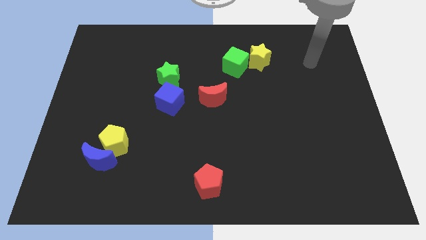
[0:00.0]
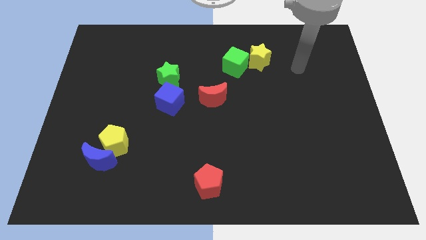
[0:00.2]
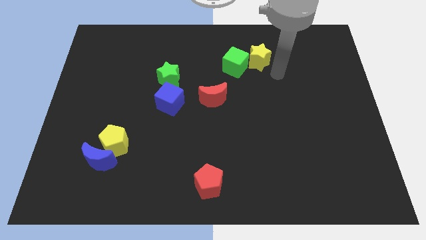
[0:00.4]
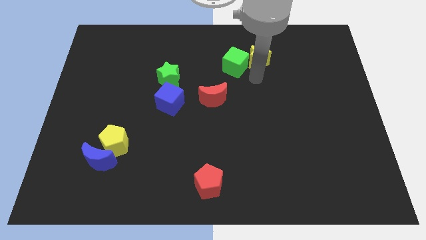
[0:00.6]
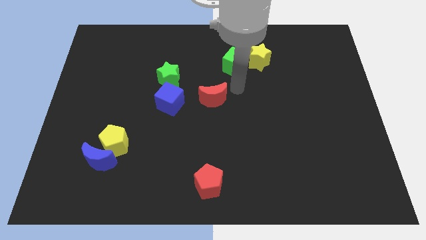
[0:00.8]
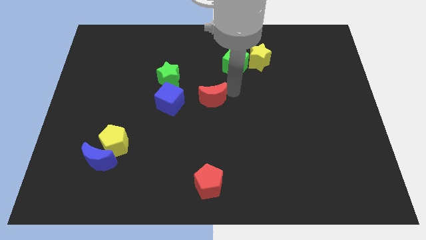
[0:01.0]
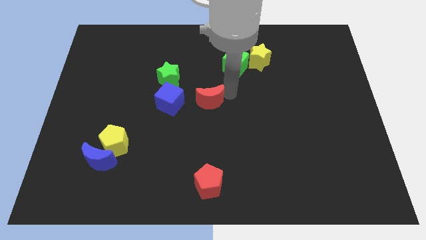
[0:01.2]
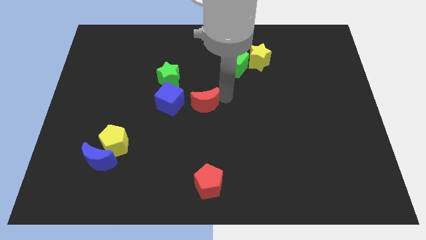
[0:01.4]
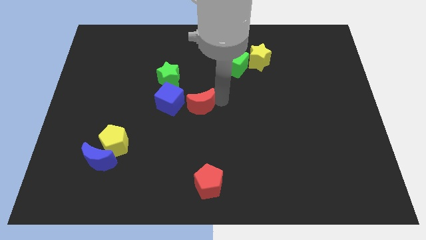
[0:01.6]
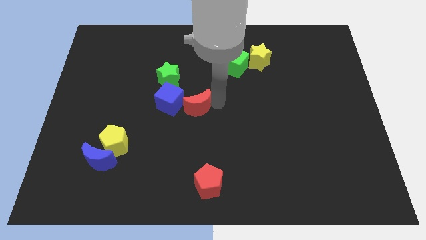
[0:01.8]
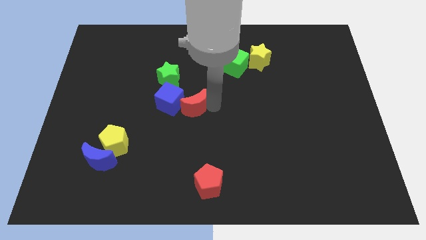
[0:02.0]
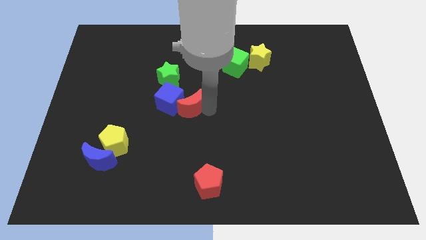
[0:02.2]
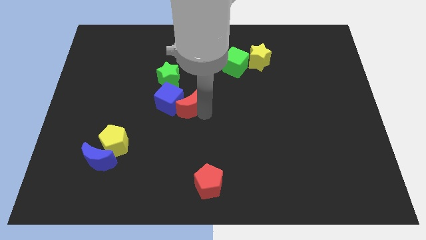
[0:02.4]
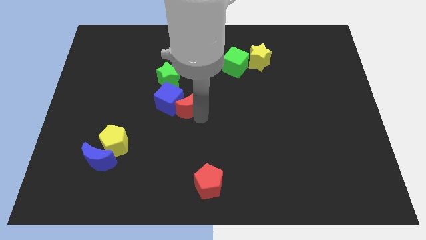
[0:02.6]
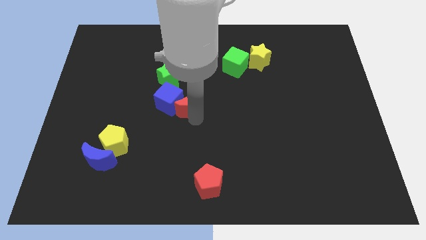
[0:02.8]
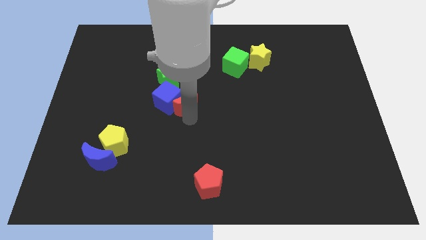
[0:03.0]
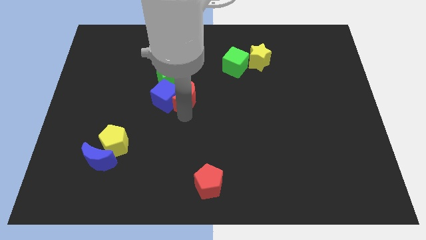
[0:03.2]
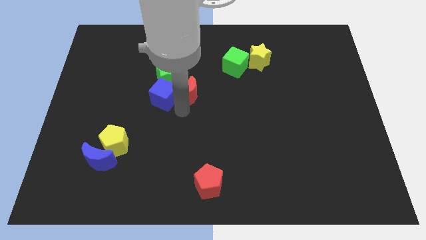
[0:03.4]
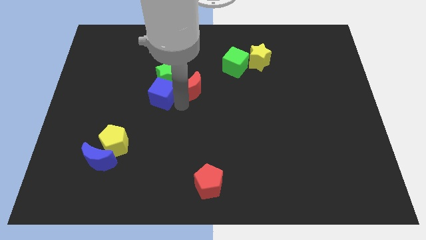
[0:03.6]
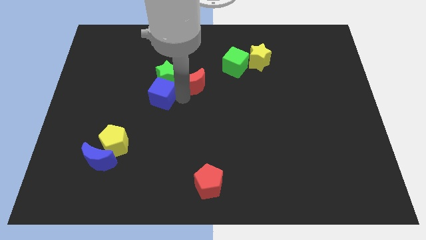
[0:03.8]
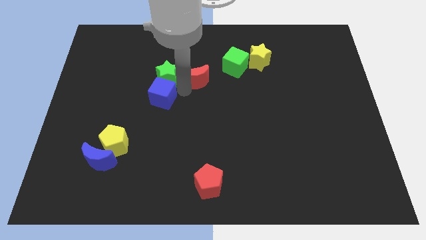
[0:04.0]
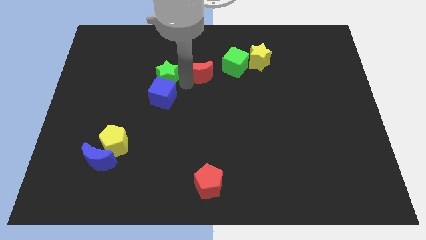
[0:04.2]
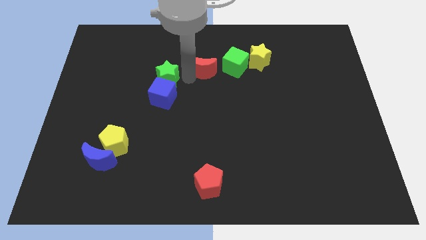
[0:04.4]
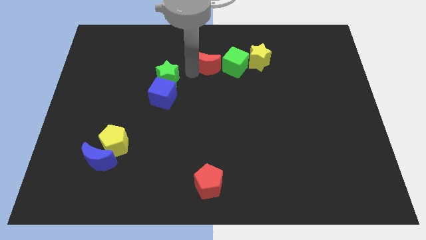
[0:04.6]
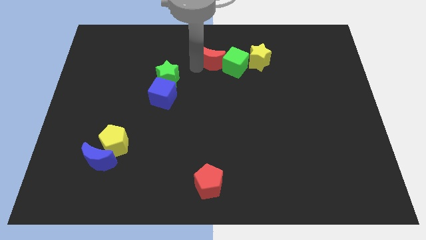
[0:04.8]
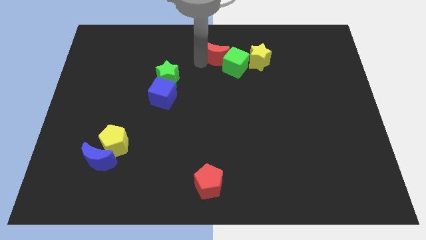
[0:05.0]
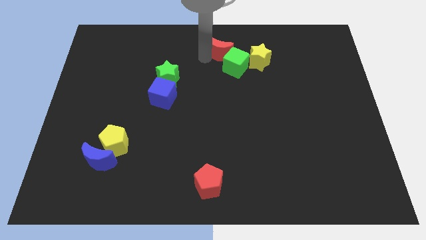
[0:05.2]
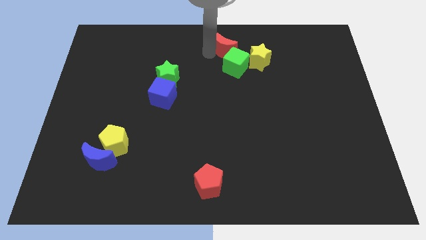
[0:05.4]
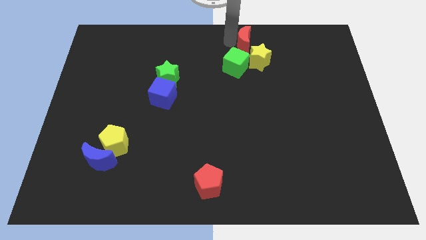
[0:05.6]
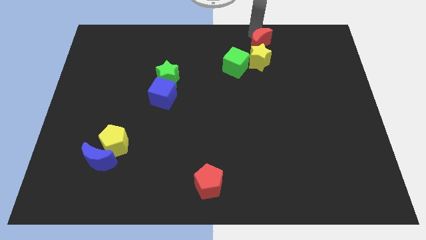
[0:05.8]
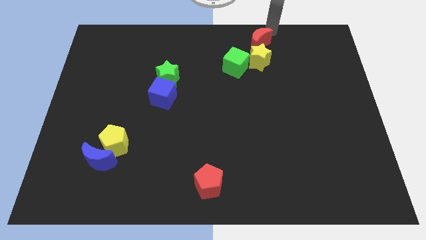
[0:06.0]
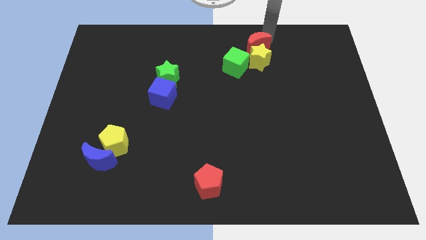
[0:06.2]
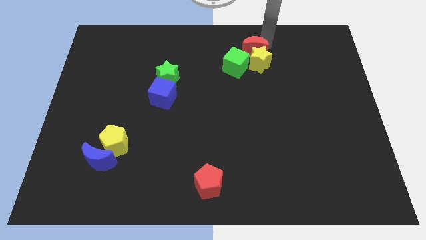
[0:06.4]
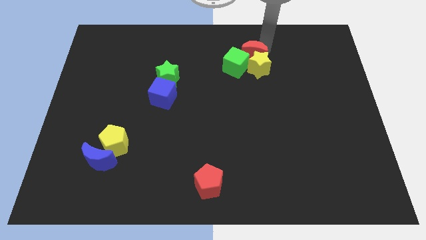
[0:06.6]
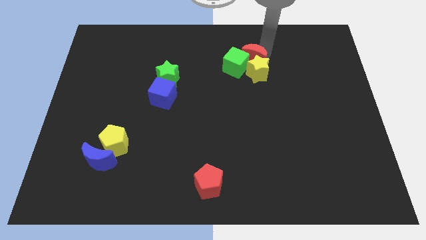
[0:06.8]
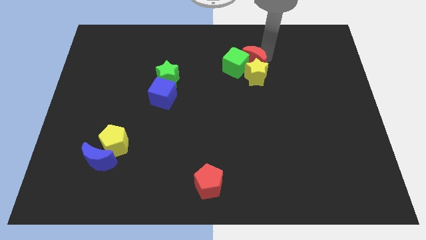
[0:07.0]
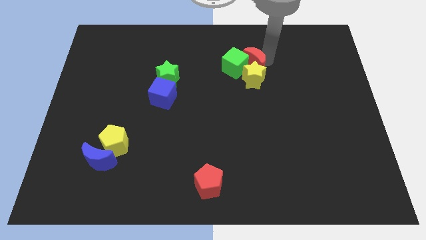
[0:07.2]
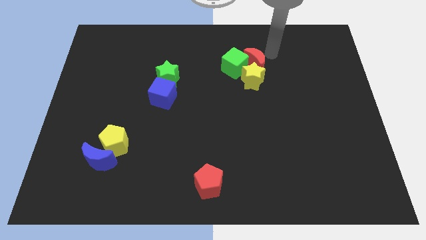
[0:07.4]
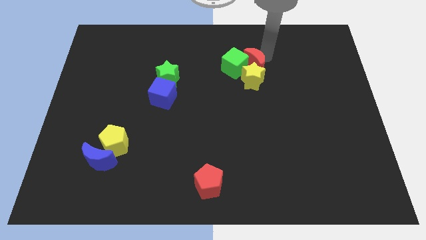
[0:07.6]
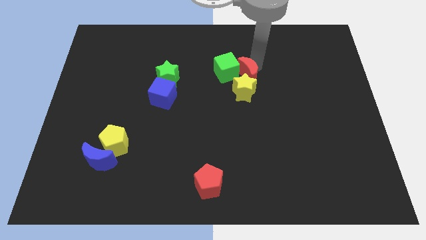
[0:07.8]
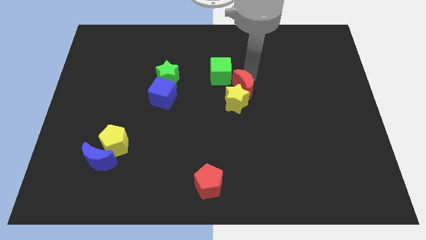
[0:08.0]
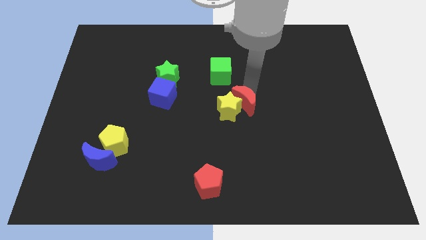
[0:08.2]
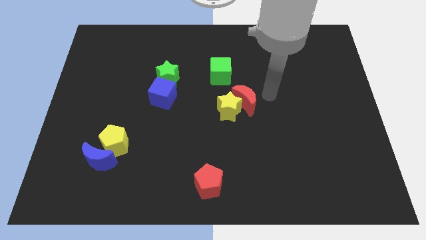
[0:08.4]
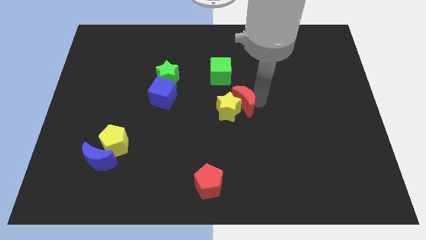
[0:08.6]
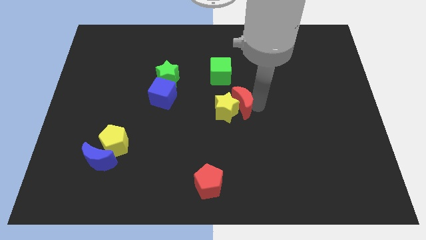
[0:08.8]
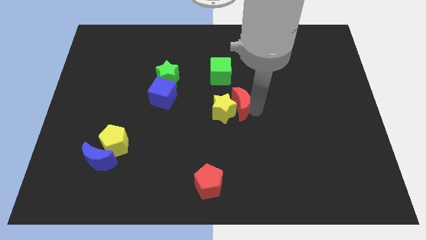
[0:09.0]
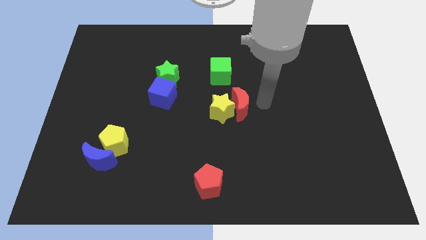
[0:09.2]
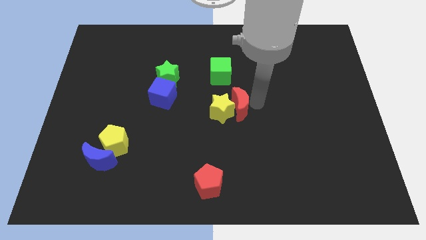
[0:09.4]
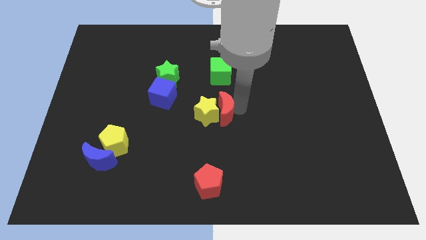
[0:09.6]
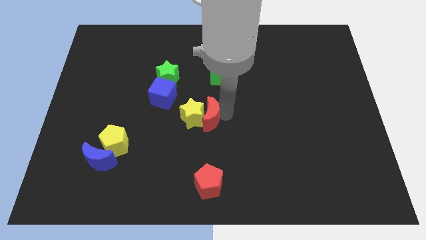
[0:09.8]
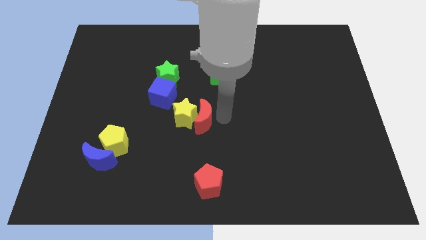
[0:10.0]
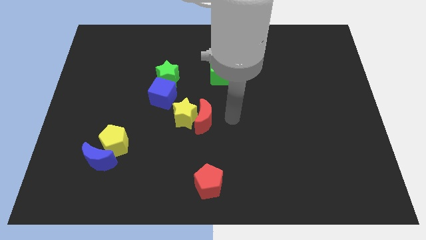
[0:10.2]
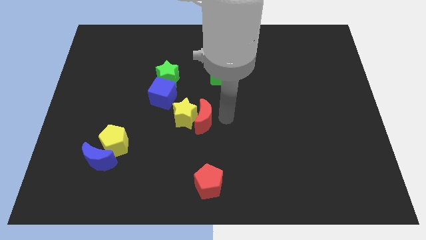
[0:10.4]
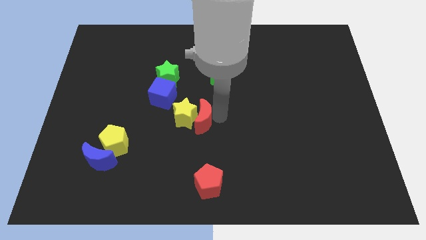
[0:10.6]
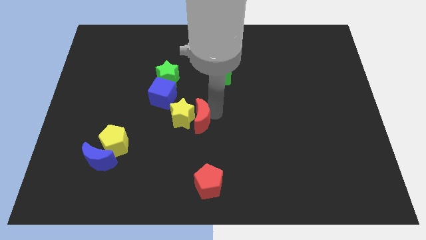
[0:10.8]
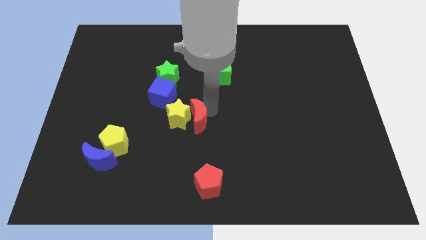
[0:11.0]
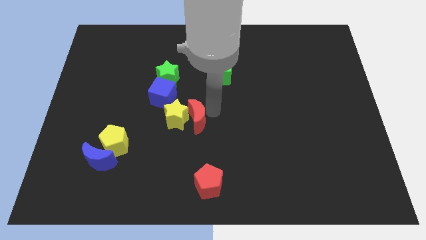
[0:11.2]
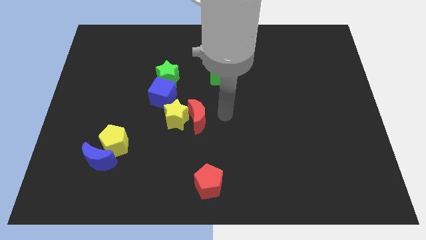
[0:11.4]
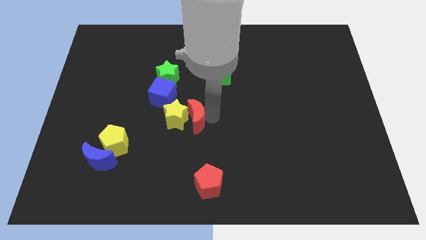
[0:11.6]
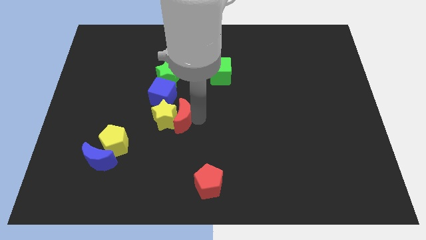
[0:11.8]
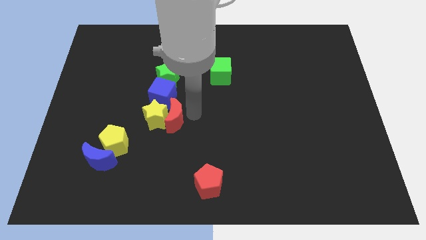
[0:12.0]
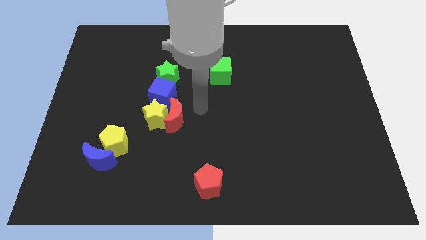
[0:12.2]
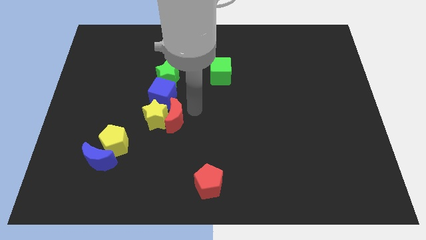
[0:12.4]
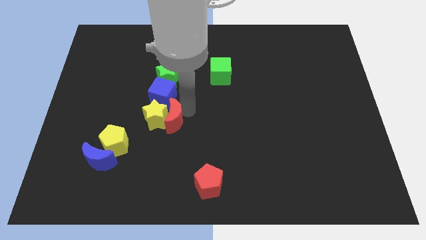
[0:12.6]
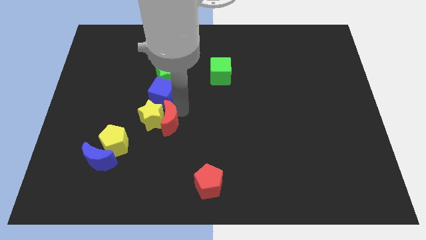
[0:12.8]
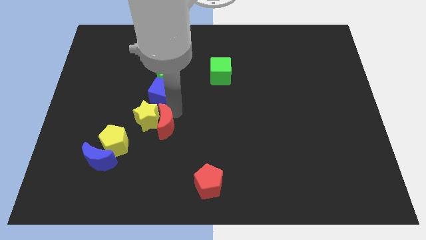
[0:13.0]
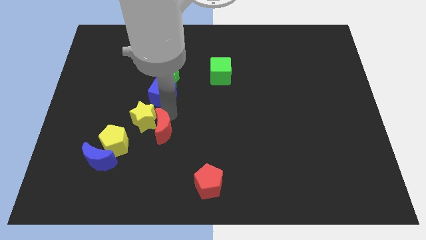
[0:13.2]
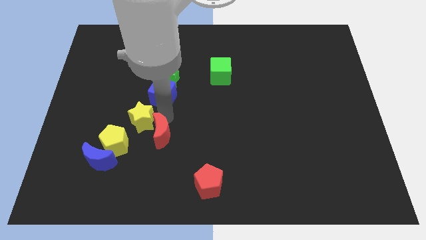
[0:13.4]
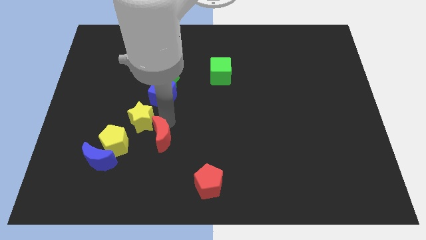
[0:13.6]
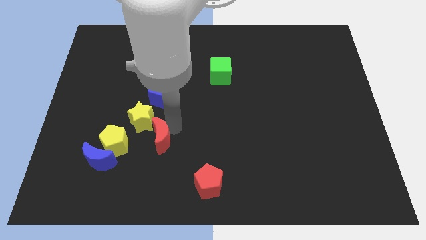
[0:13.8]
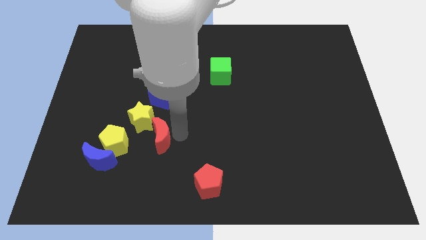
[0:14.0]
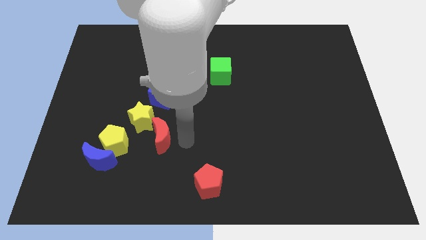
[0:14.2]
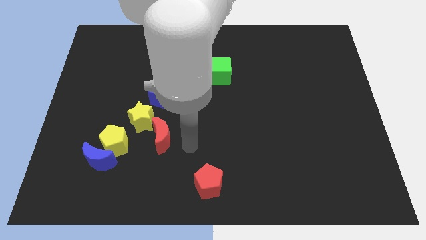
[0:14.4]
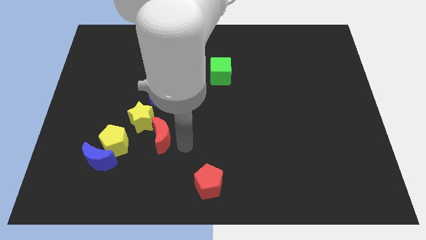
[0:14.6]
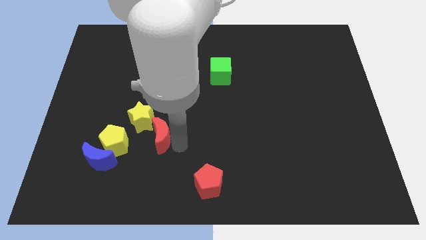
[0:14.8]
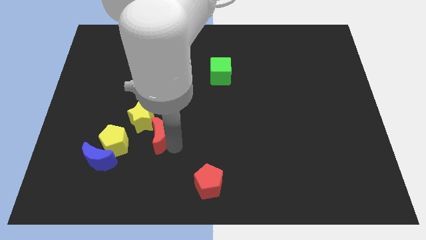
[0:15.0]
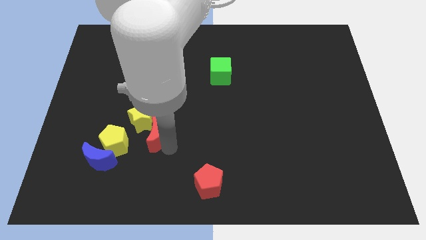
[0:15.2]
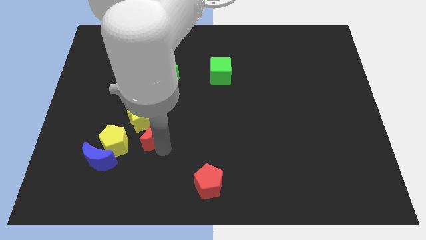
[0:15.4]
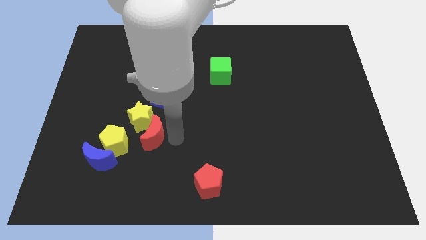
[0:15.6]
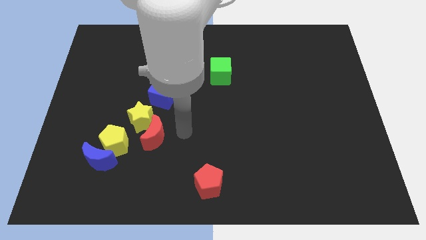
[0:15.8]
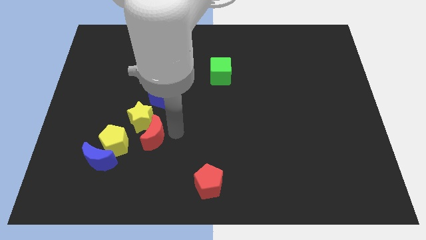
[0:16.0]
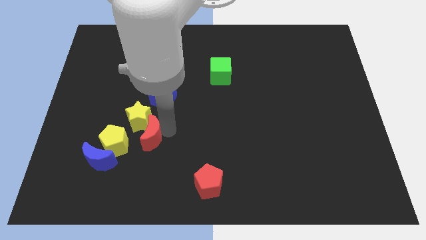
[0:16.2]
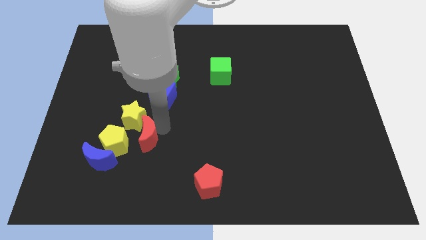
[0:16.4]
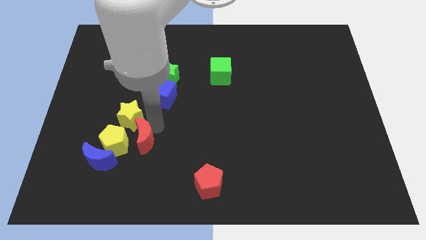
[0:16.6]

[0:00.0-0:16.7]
put the red moon to the yellow pentagon
